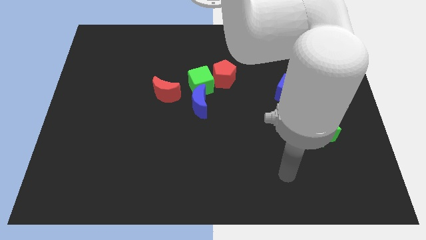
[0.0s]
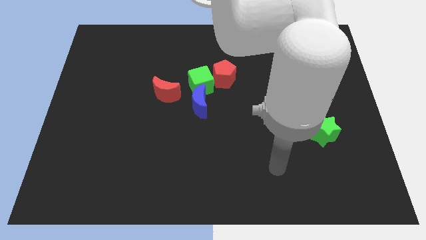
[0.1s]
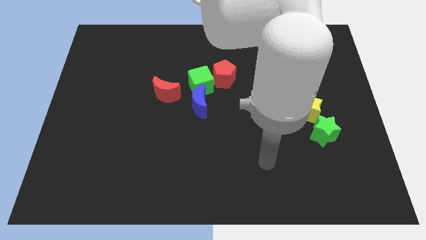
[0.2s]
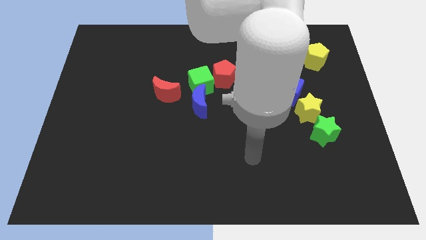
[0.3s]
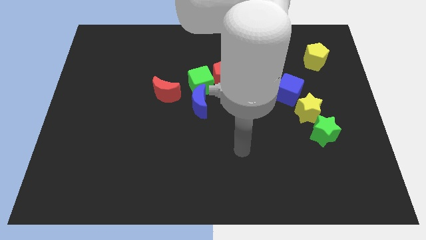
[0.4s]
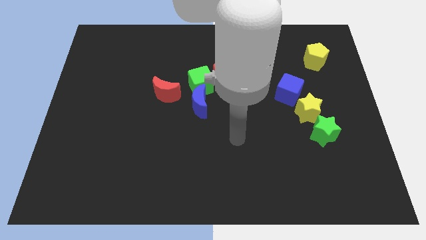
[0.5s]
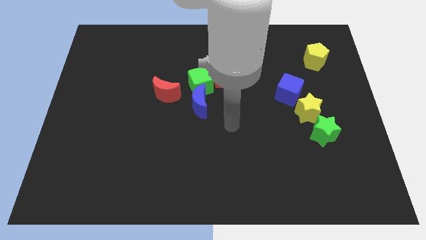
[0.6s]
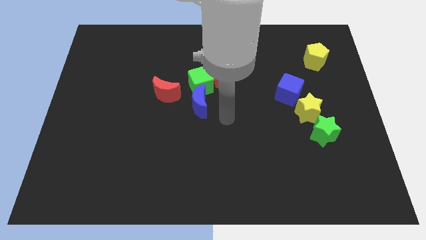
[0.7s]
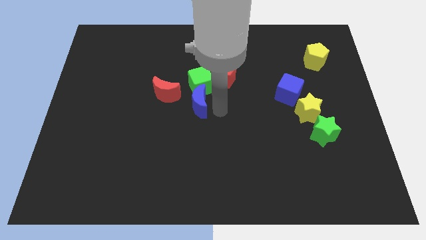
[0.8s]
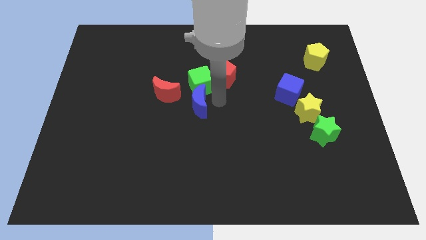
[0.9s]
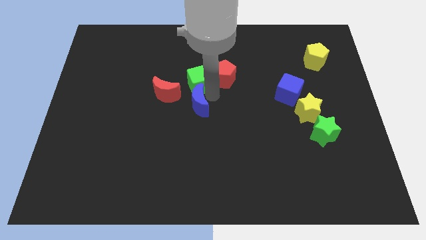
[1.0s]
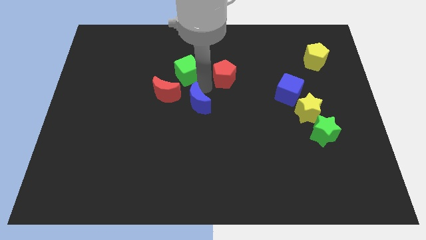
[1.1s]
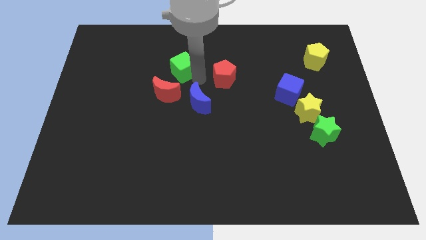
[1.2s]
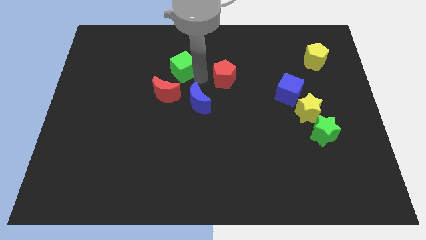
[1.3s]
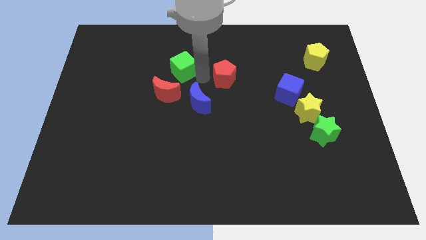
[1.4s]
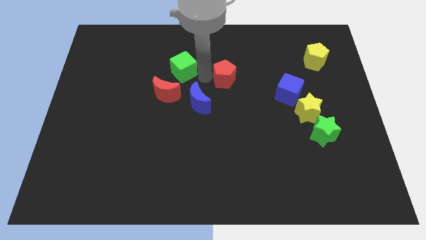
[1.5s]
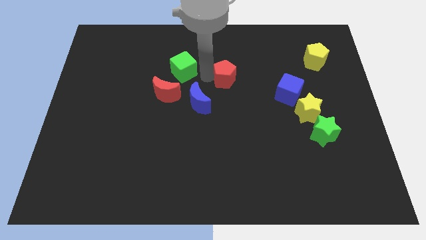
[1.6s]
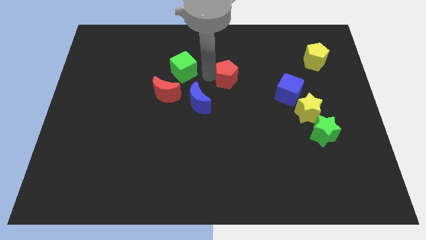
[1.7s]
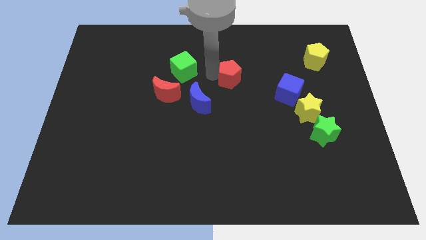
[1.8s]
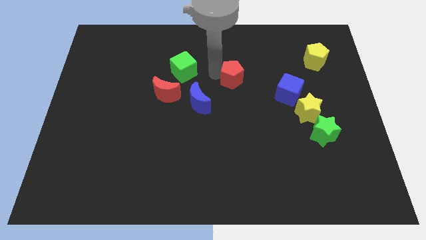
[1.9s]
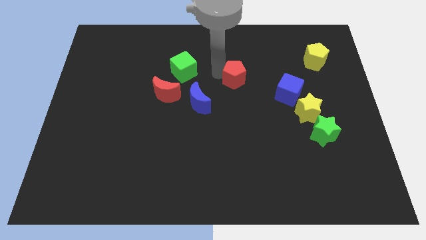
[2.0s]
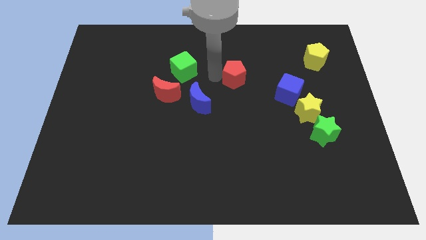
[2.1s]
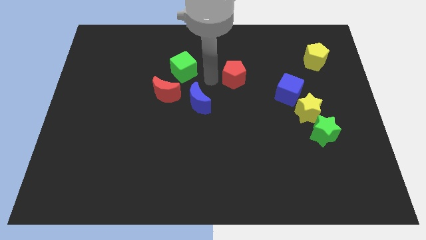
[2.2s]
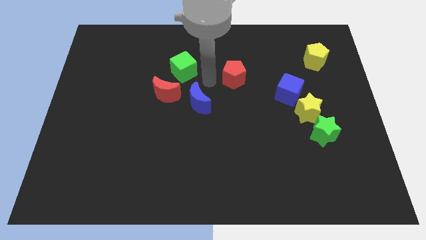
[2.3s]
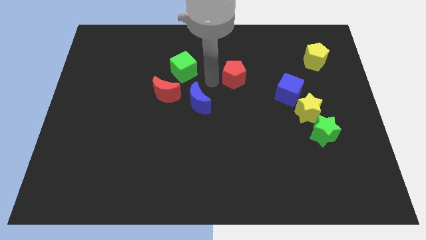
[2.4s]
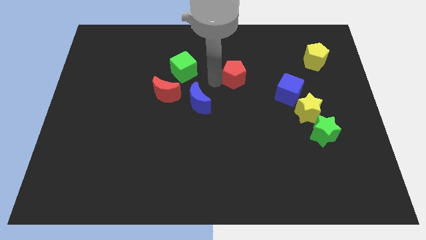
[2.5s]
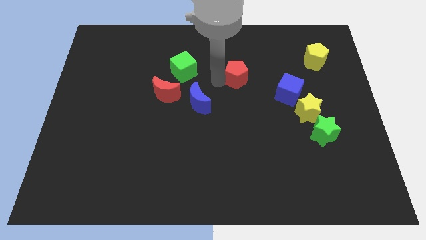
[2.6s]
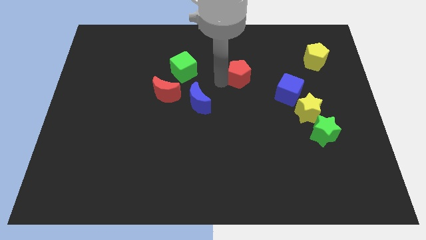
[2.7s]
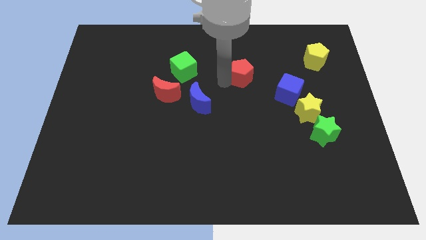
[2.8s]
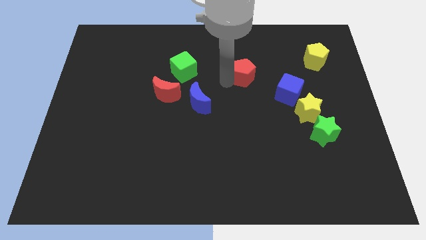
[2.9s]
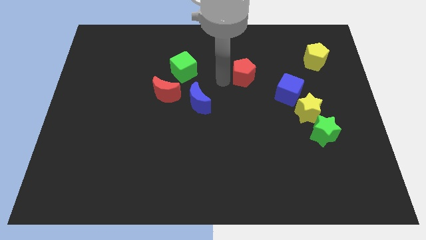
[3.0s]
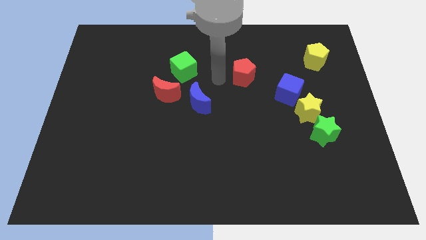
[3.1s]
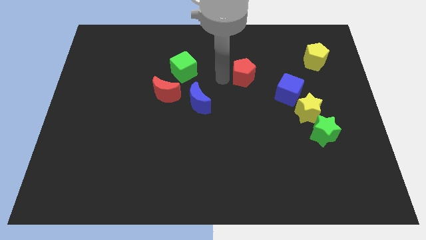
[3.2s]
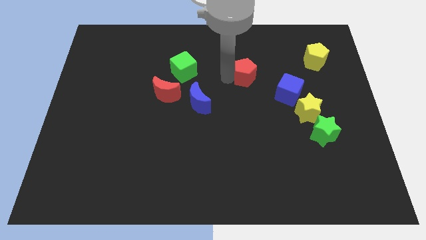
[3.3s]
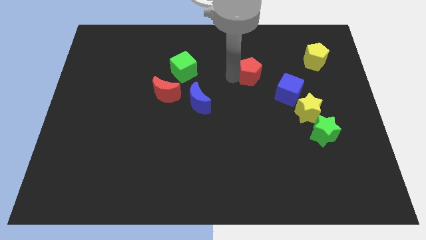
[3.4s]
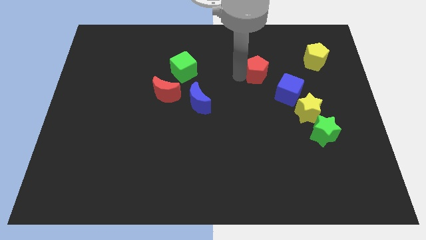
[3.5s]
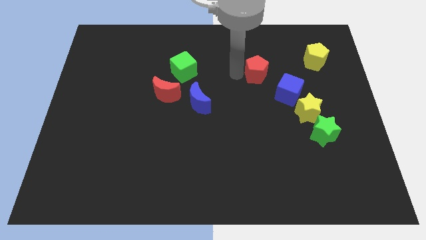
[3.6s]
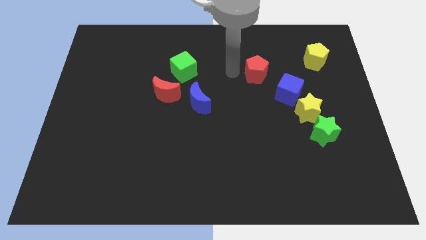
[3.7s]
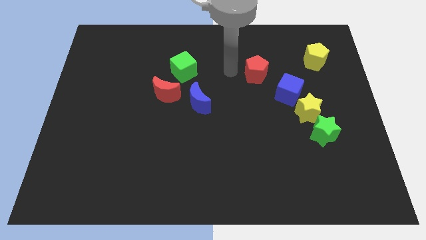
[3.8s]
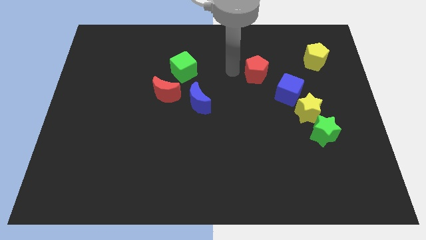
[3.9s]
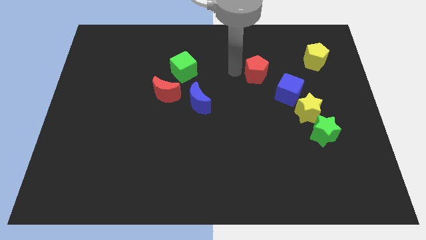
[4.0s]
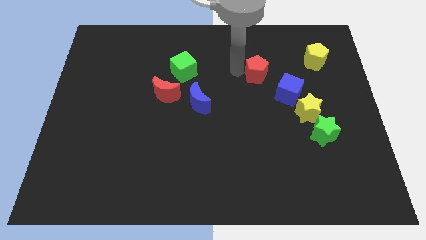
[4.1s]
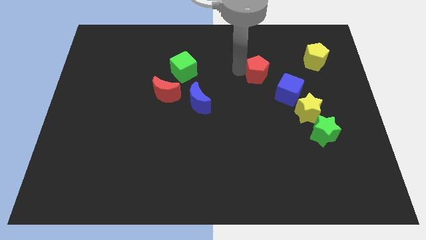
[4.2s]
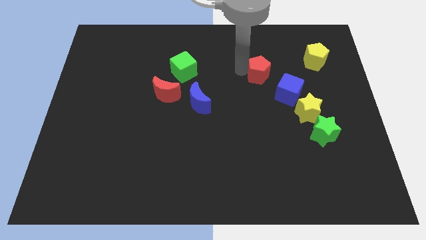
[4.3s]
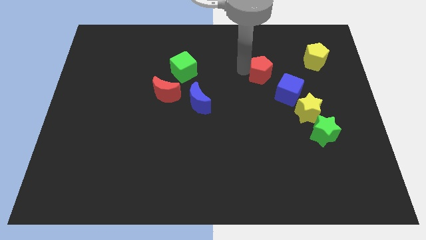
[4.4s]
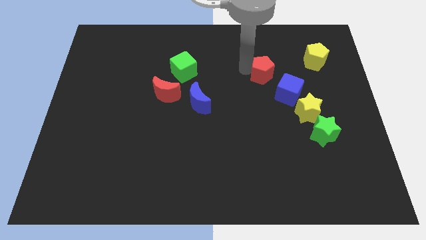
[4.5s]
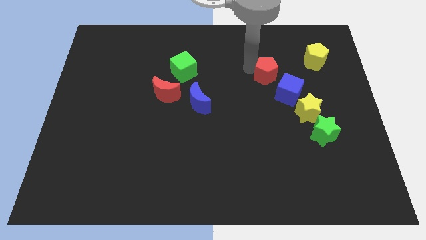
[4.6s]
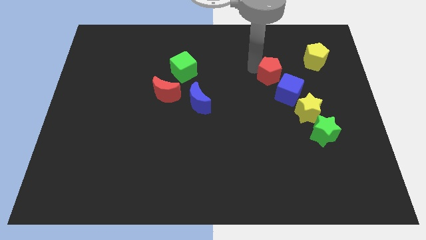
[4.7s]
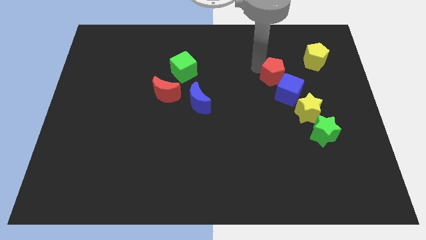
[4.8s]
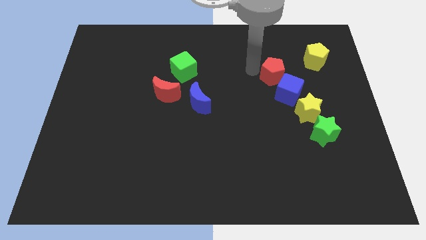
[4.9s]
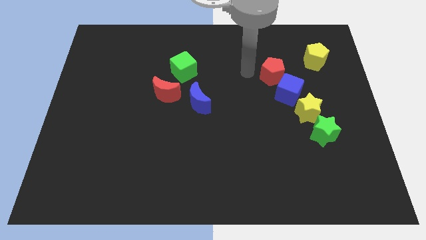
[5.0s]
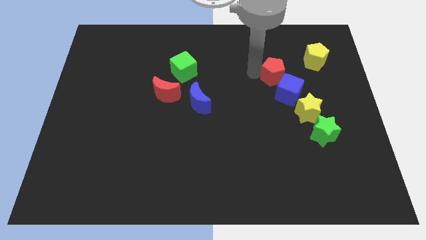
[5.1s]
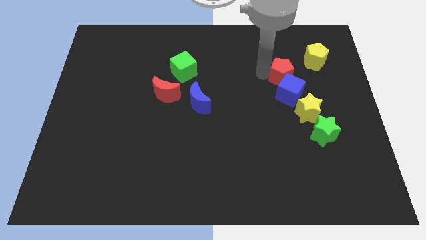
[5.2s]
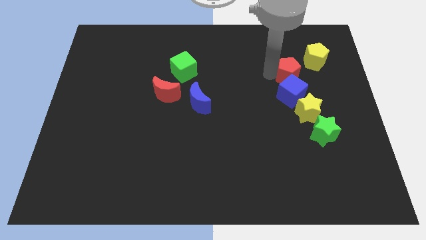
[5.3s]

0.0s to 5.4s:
push the red pentagon to the top right of the blue cube

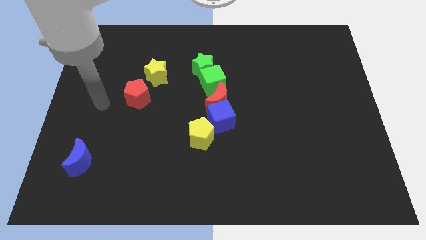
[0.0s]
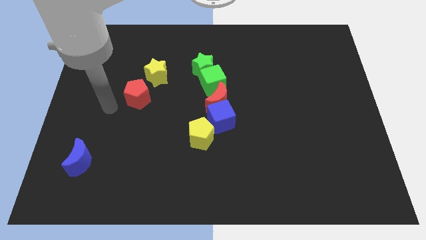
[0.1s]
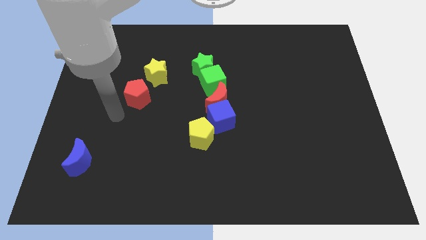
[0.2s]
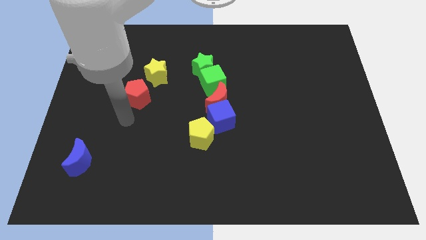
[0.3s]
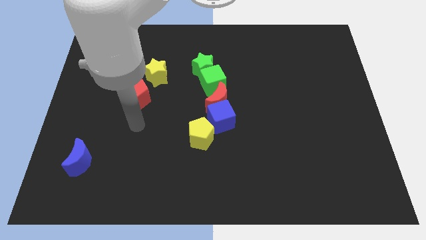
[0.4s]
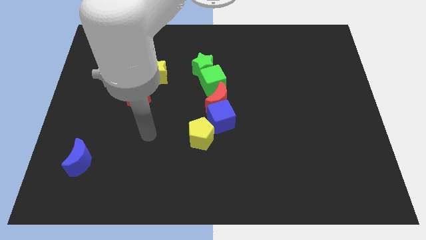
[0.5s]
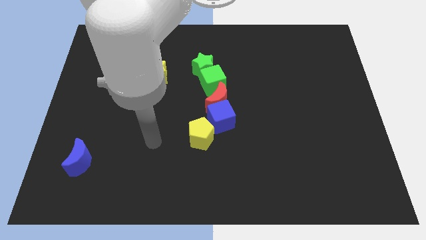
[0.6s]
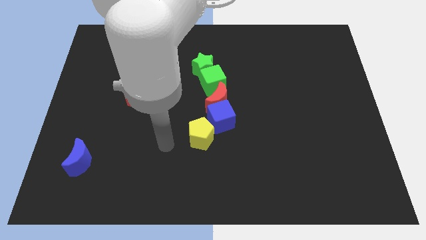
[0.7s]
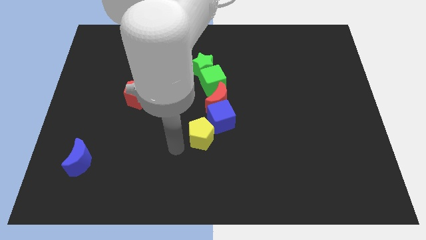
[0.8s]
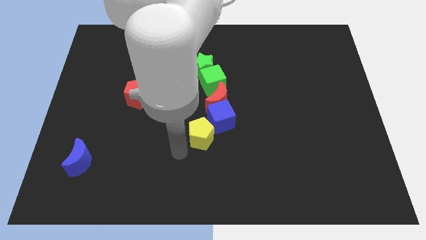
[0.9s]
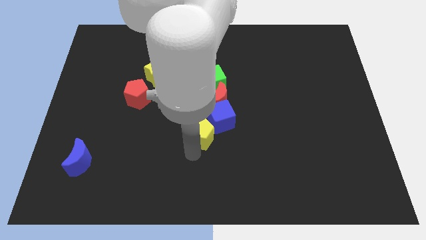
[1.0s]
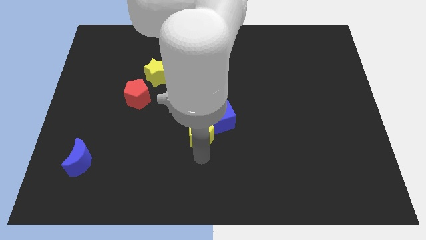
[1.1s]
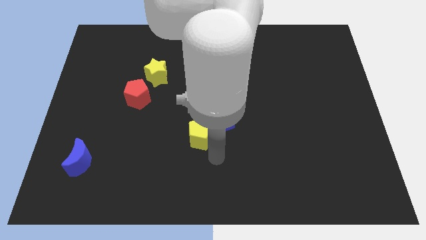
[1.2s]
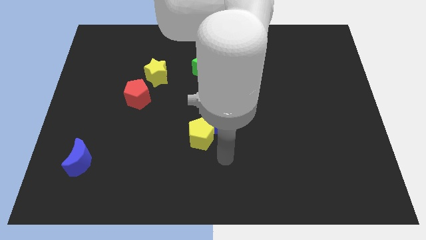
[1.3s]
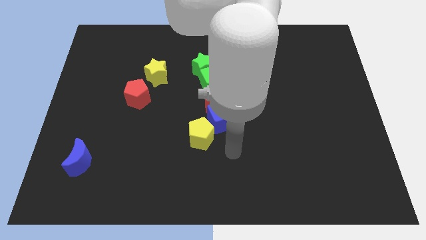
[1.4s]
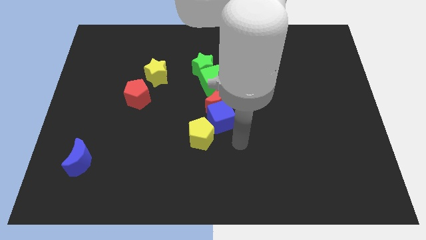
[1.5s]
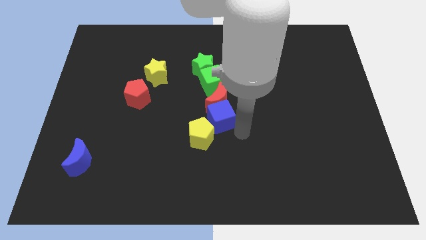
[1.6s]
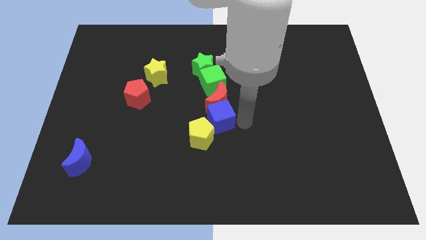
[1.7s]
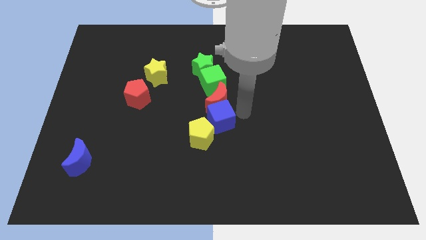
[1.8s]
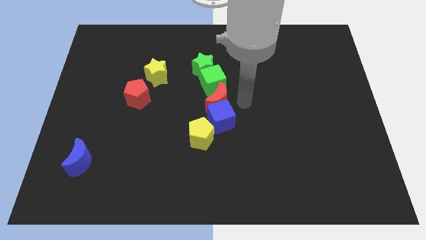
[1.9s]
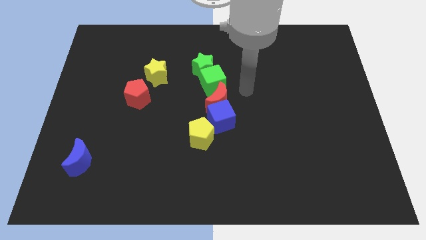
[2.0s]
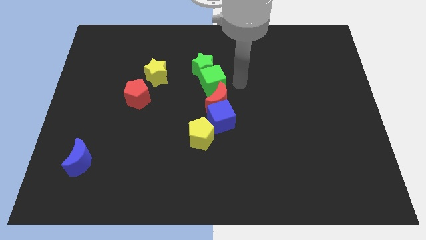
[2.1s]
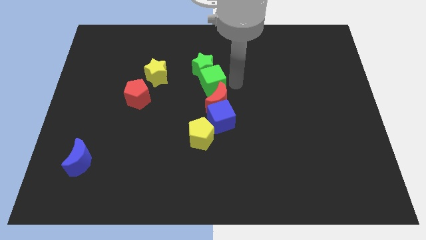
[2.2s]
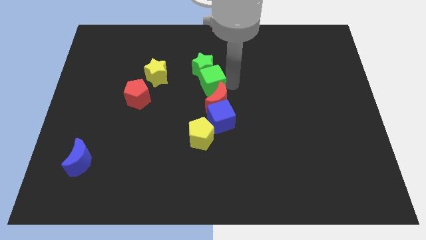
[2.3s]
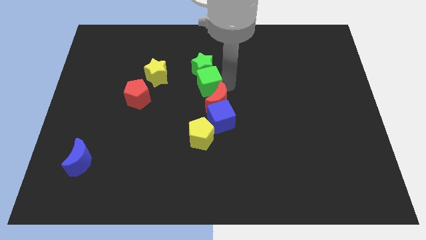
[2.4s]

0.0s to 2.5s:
put the green cube to the bottom left side of the green star
